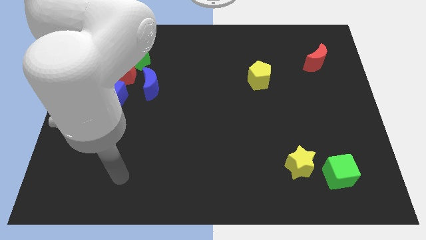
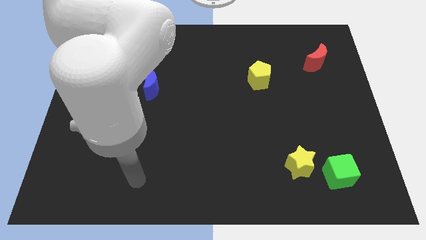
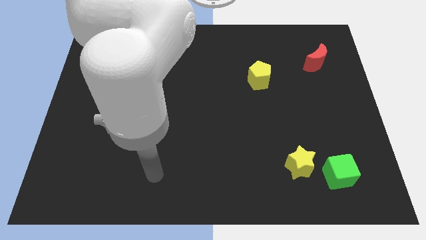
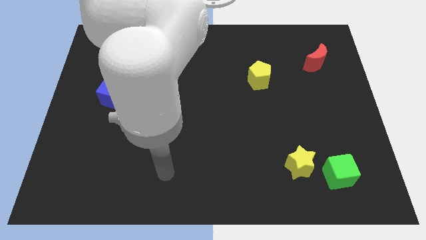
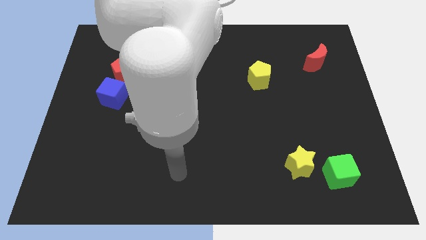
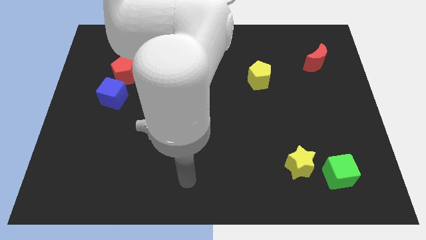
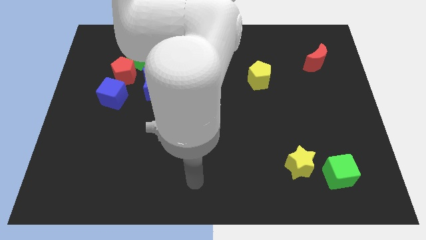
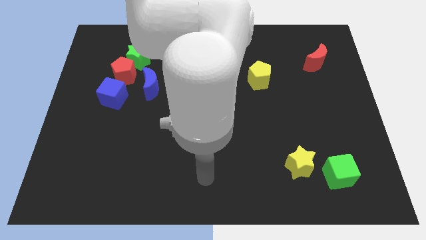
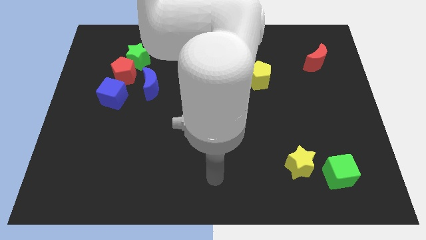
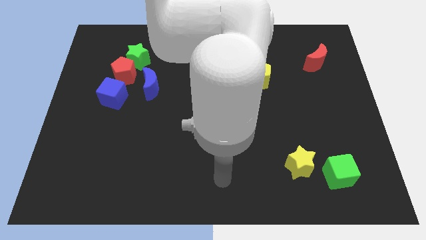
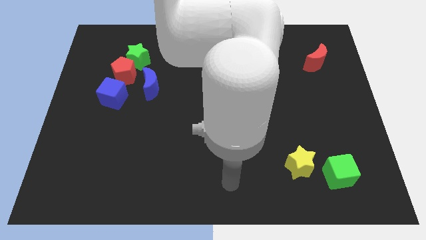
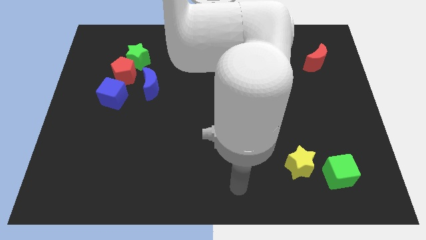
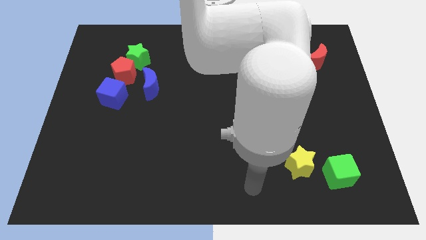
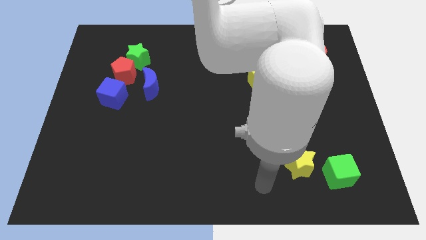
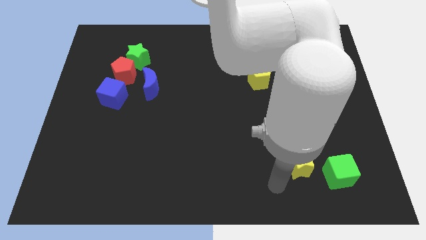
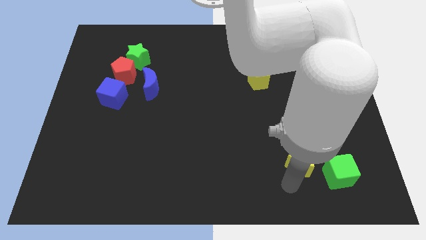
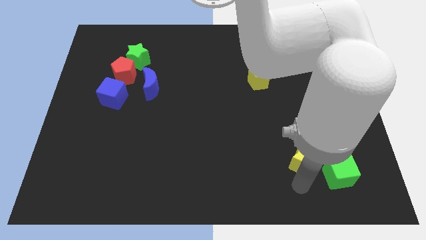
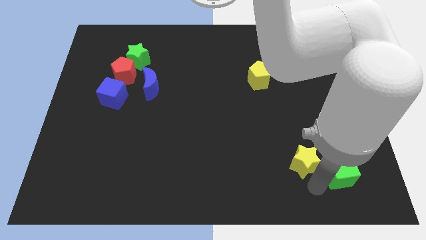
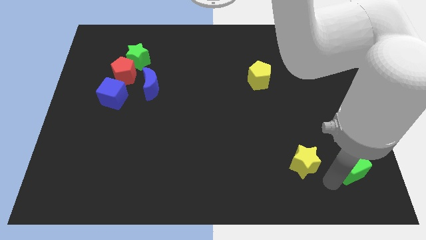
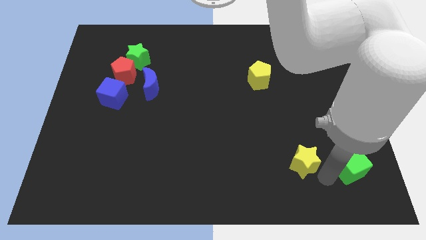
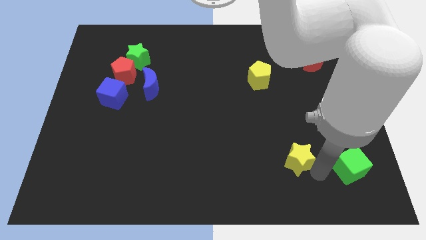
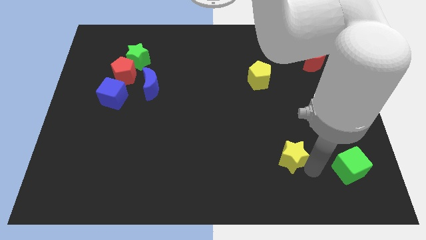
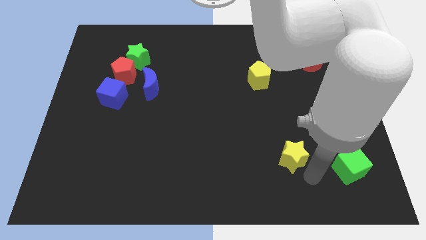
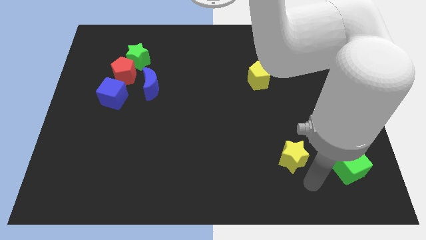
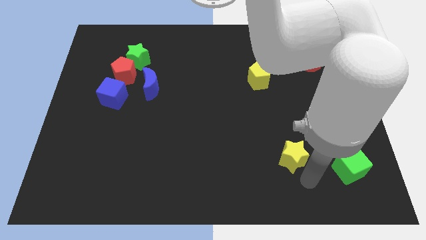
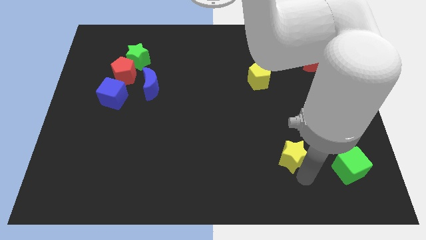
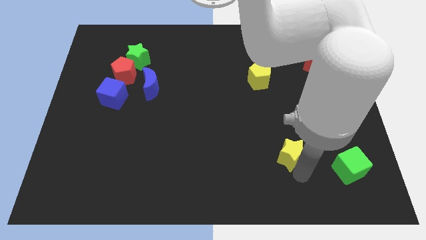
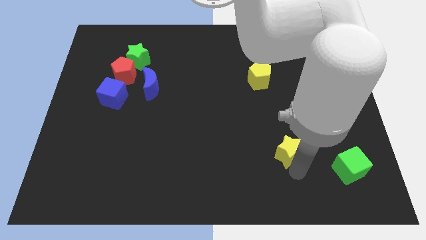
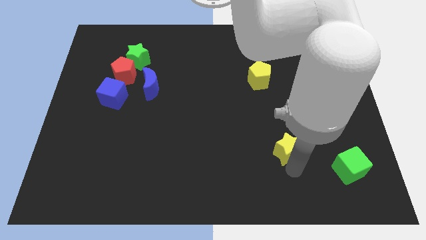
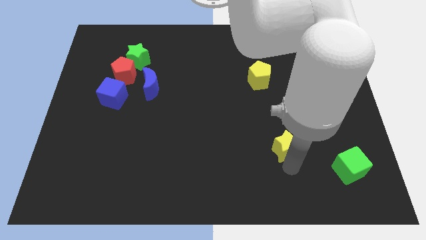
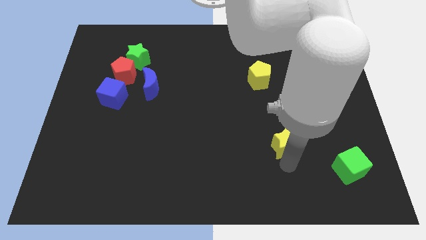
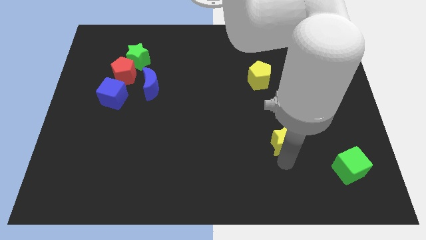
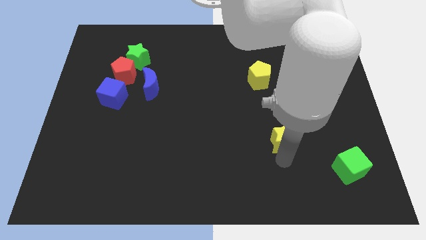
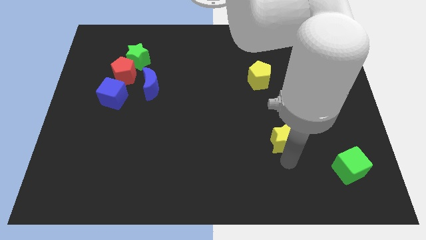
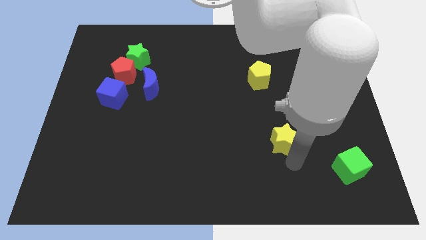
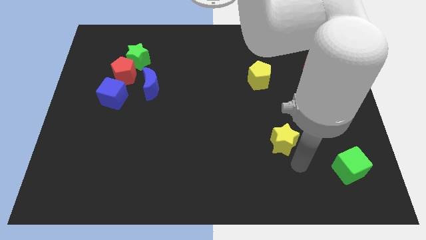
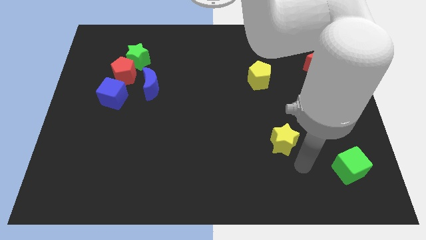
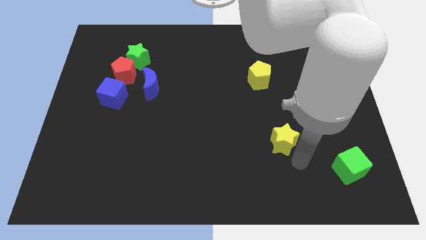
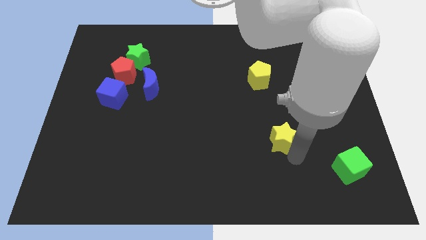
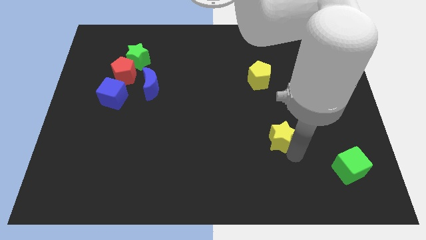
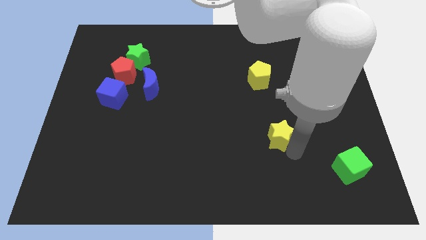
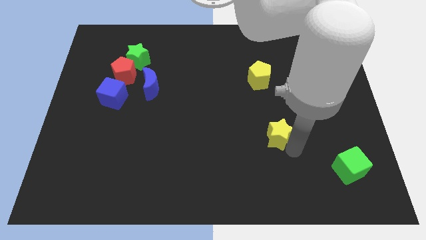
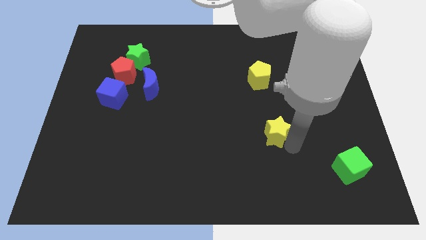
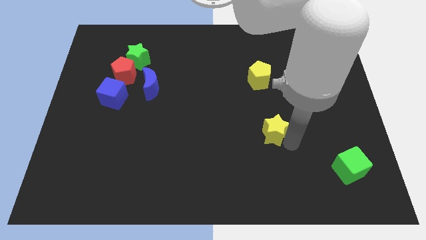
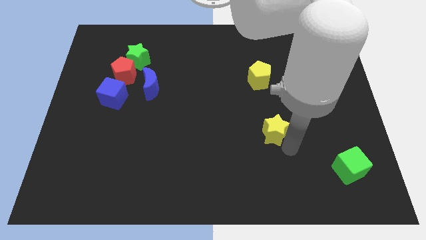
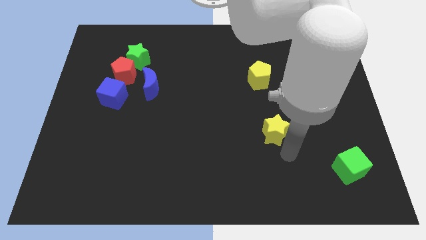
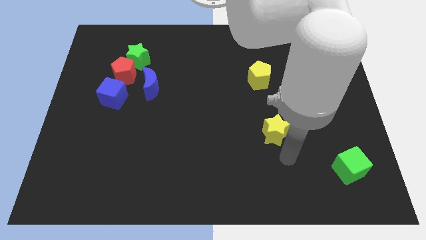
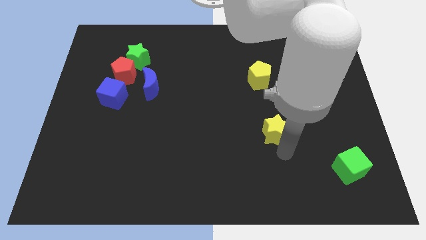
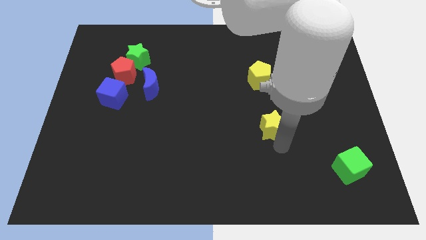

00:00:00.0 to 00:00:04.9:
put the yellow star to the bottom side of the yellow pentagon

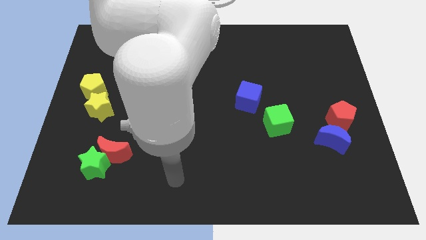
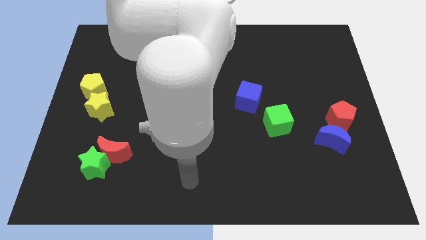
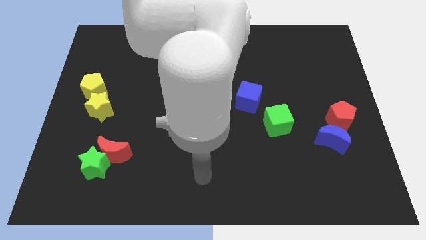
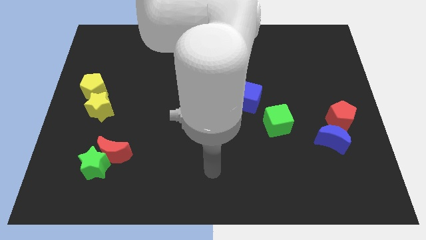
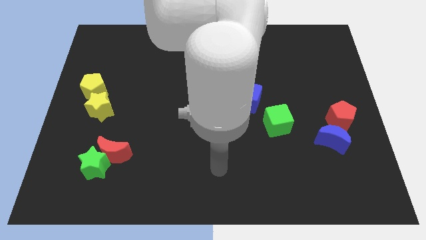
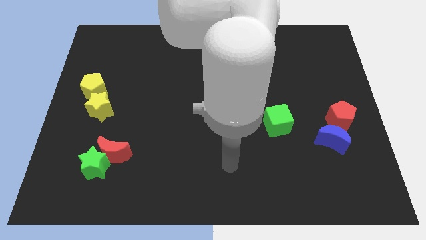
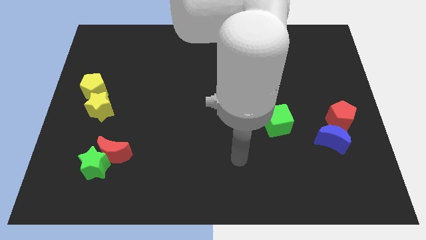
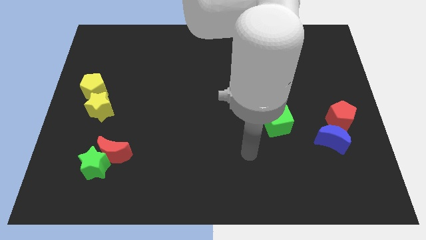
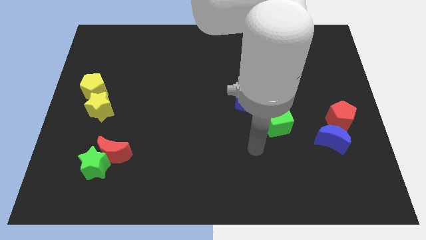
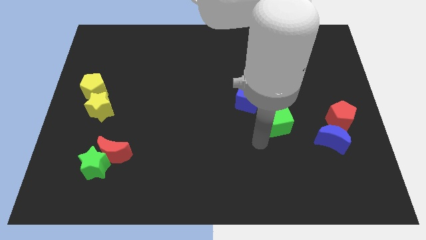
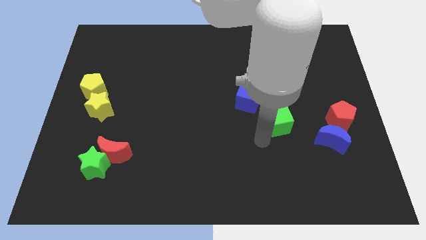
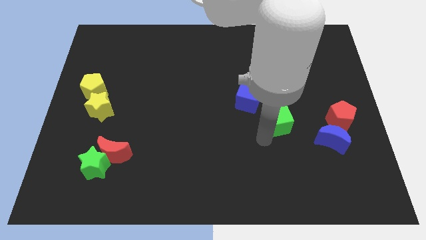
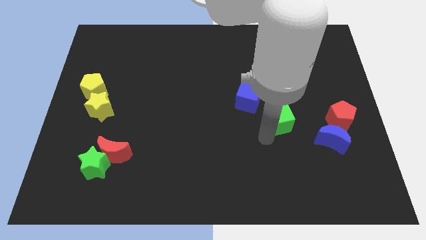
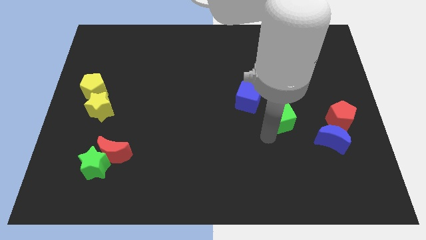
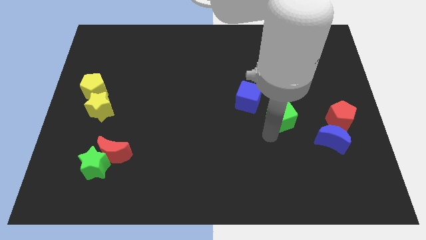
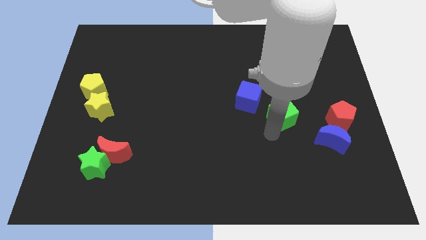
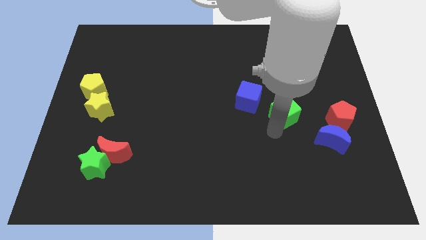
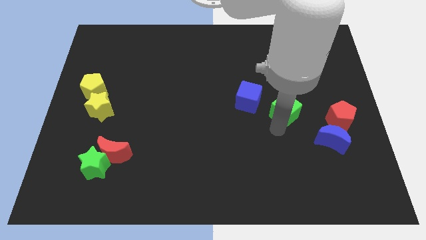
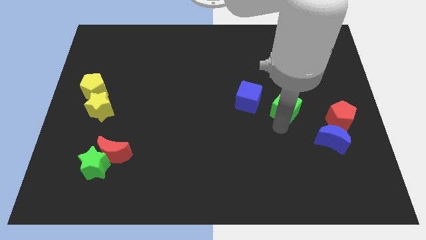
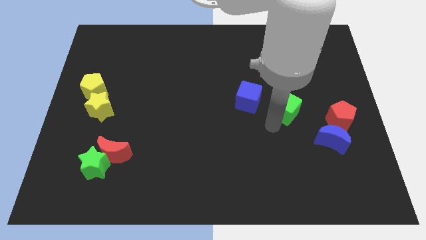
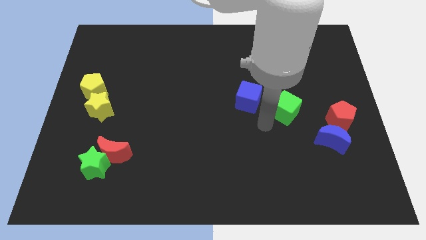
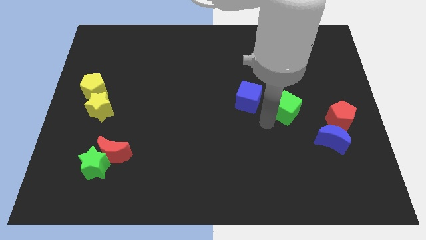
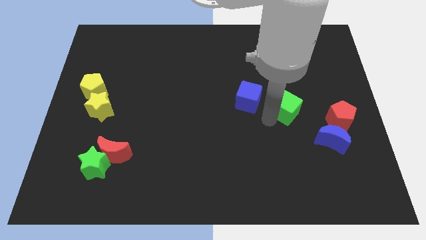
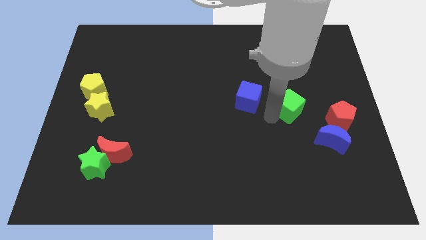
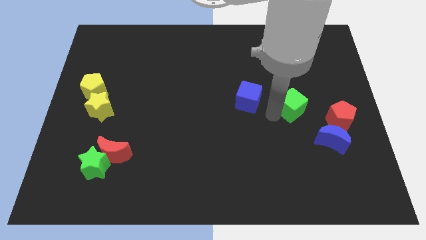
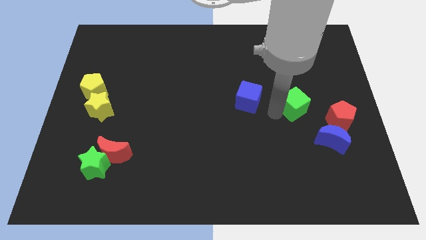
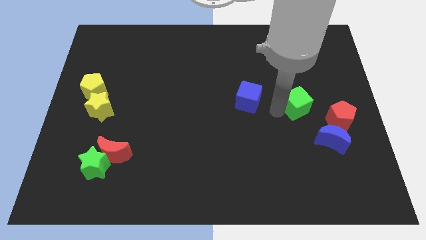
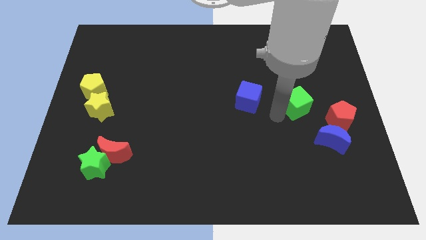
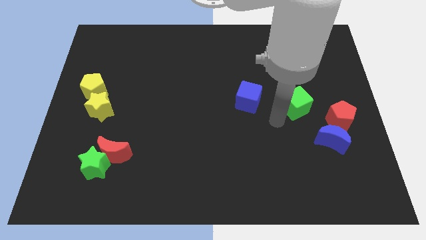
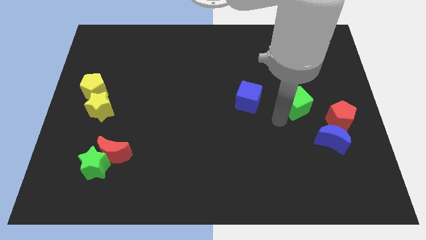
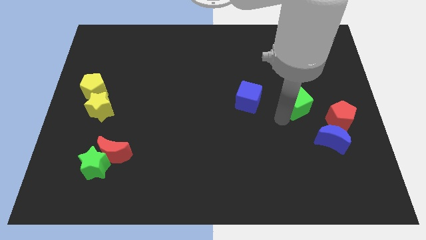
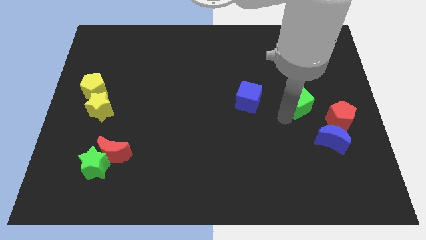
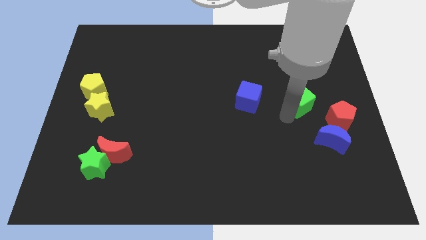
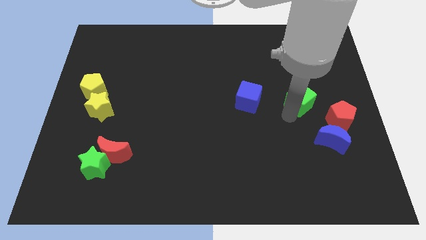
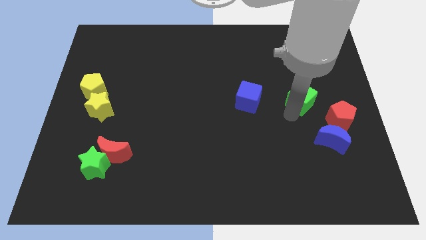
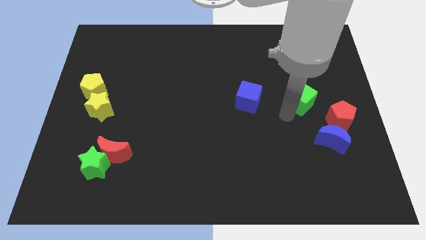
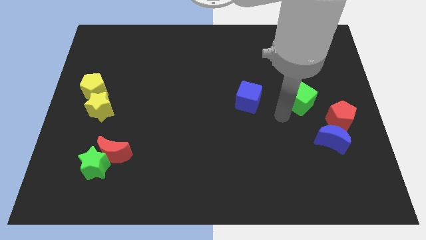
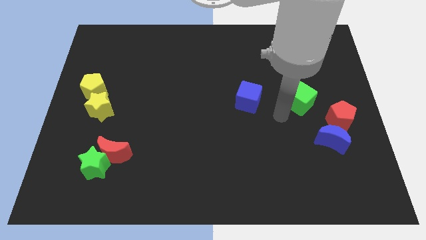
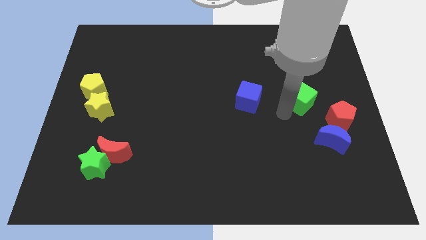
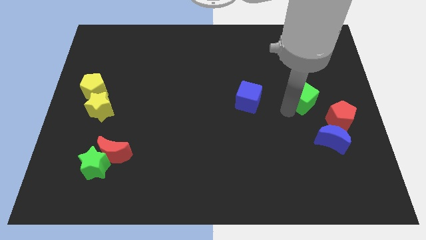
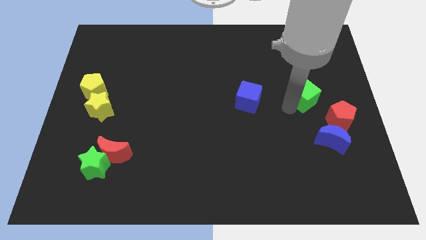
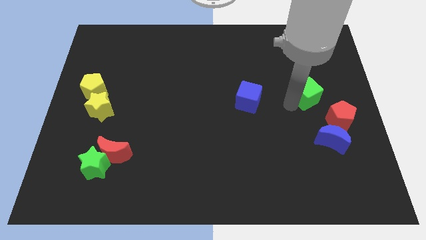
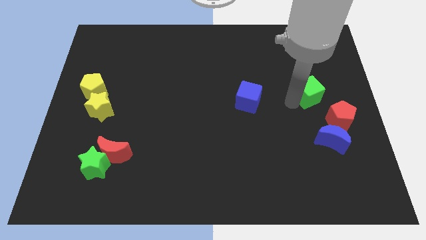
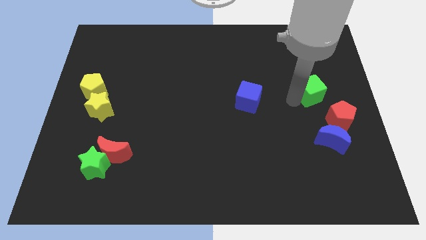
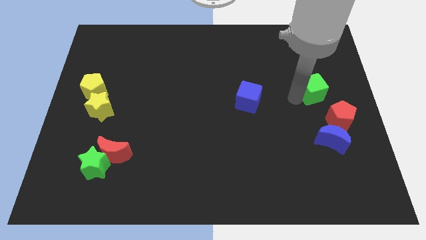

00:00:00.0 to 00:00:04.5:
put the green cube above the red pentagon
